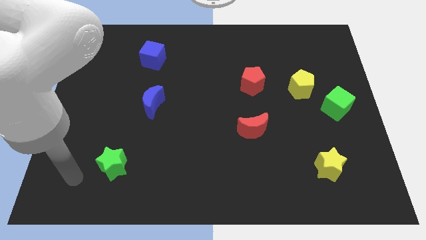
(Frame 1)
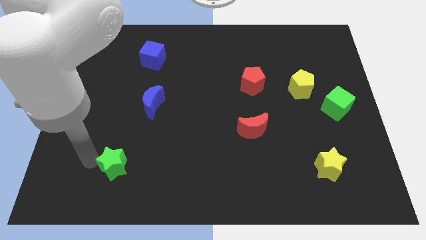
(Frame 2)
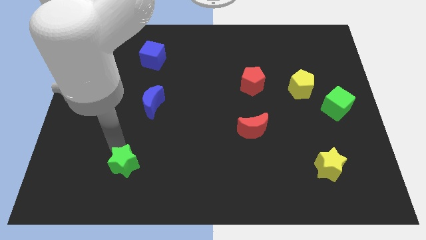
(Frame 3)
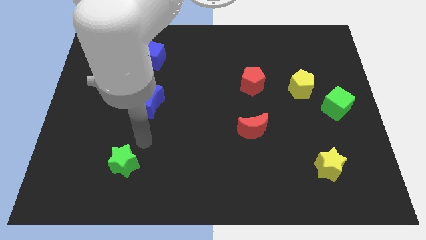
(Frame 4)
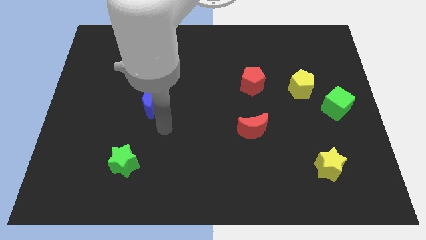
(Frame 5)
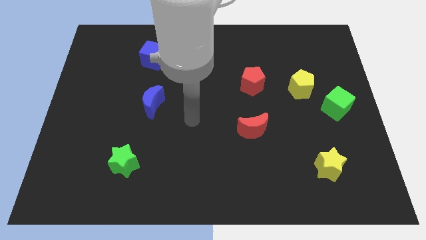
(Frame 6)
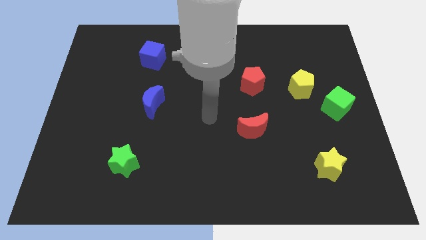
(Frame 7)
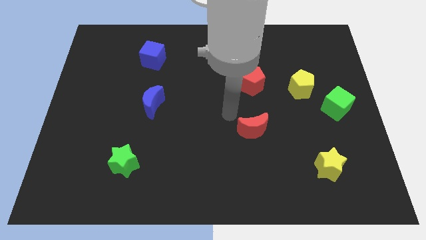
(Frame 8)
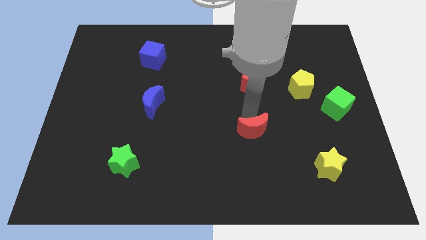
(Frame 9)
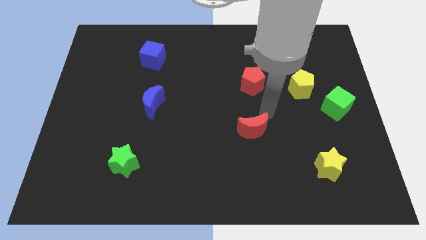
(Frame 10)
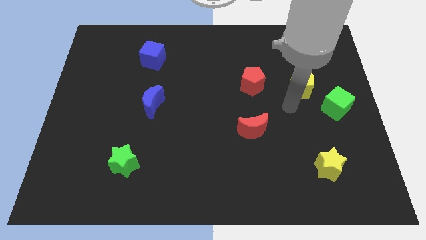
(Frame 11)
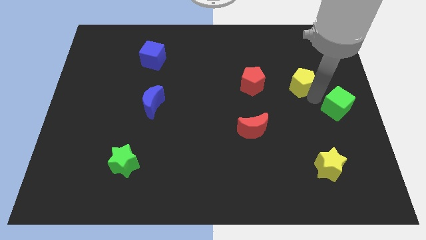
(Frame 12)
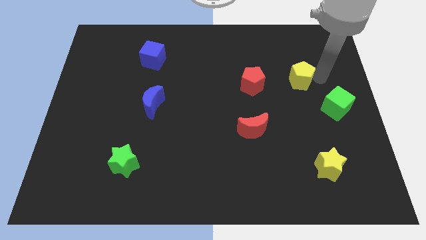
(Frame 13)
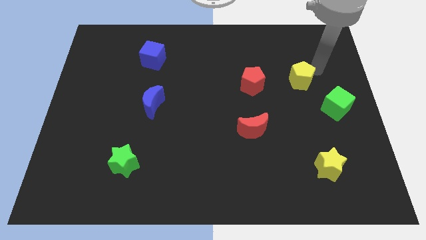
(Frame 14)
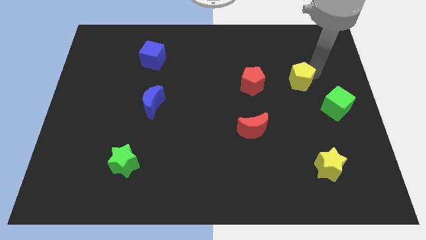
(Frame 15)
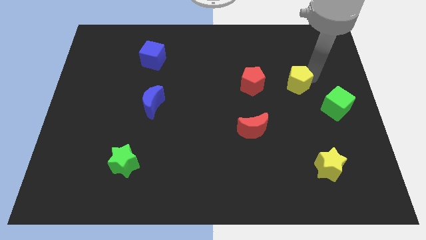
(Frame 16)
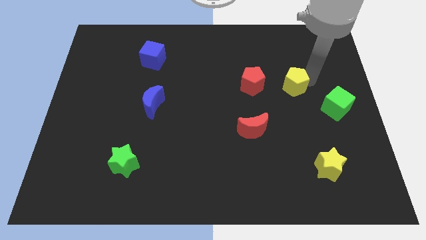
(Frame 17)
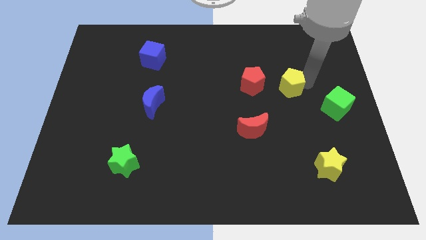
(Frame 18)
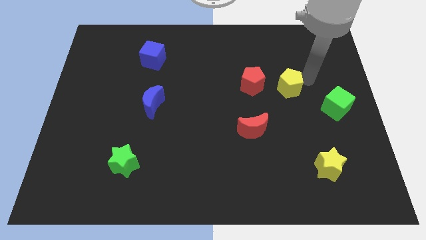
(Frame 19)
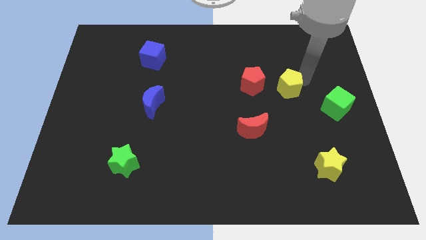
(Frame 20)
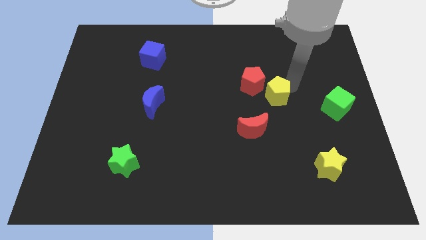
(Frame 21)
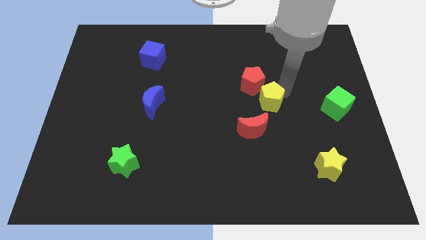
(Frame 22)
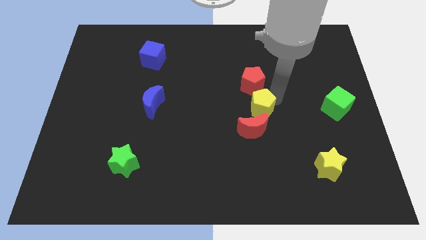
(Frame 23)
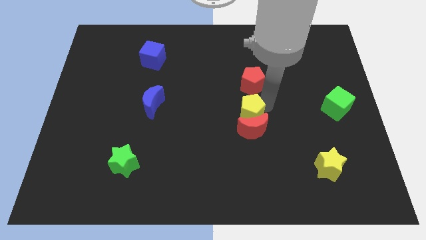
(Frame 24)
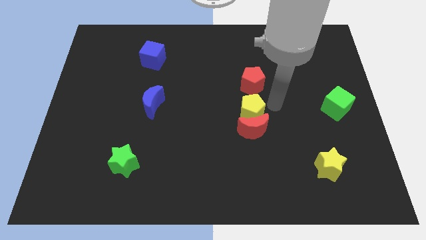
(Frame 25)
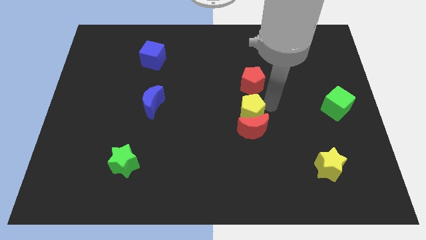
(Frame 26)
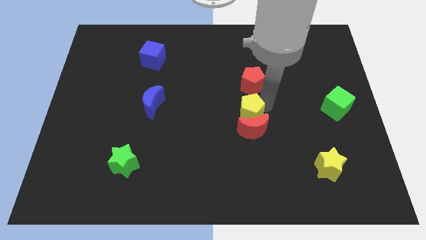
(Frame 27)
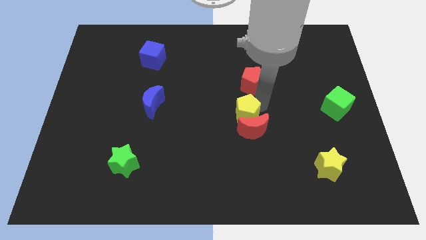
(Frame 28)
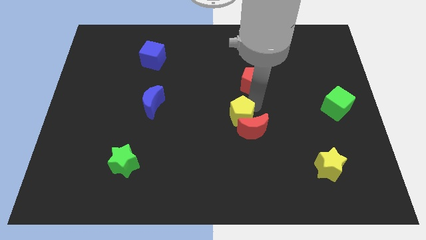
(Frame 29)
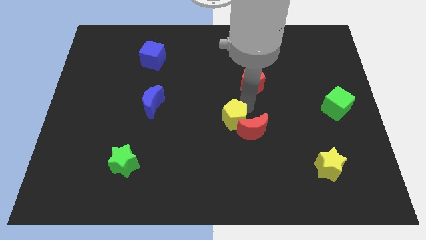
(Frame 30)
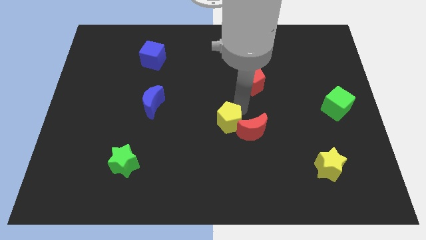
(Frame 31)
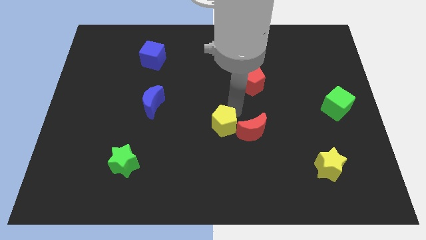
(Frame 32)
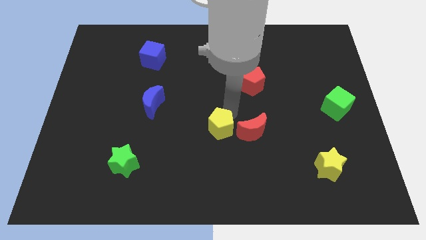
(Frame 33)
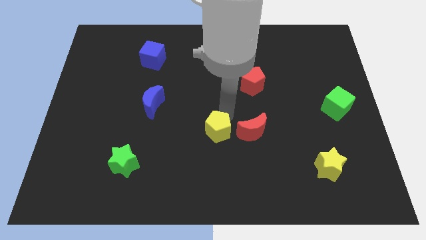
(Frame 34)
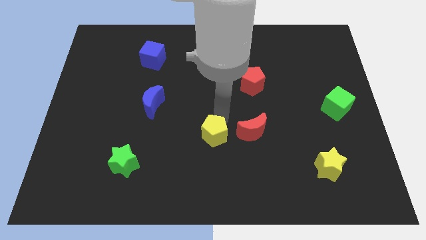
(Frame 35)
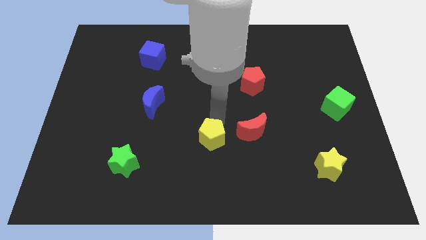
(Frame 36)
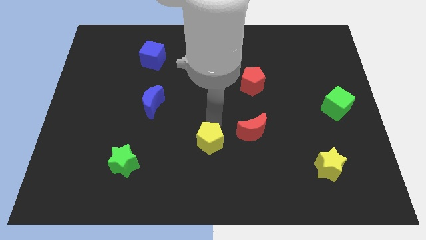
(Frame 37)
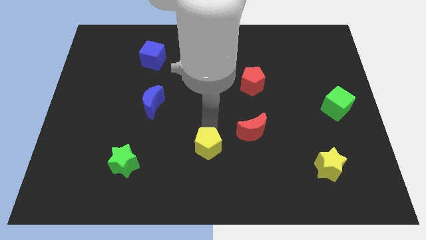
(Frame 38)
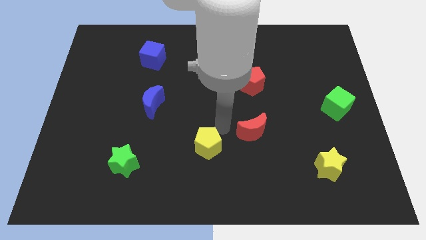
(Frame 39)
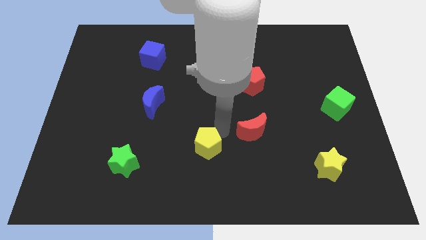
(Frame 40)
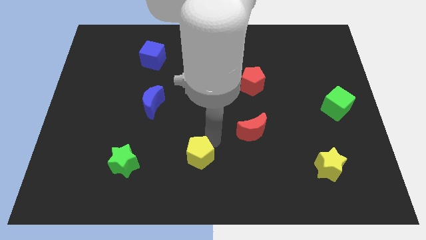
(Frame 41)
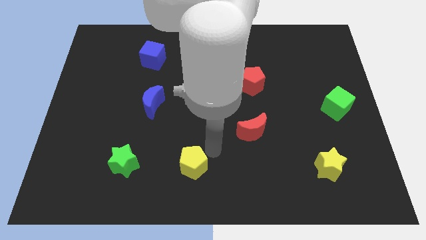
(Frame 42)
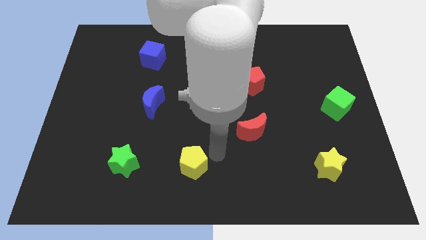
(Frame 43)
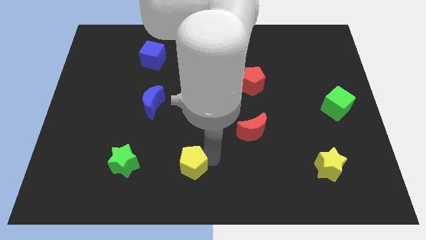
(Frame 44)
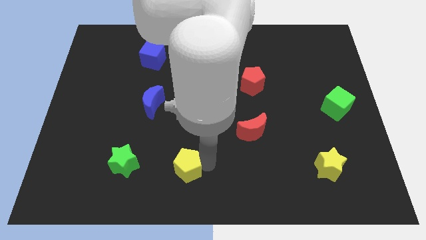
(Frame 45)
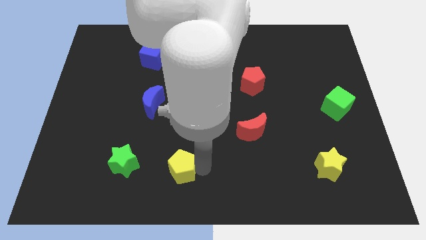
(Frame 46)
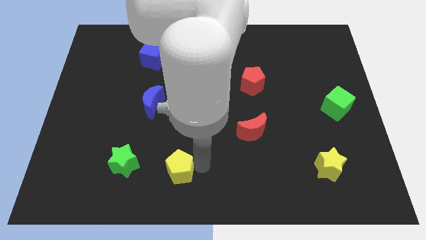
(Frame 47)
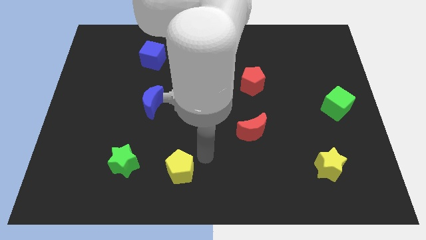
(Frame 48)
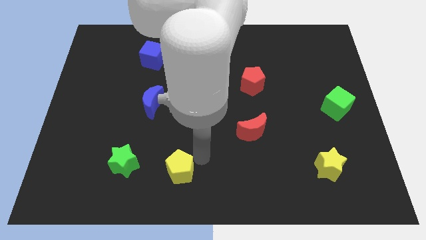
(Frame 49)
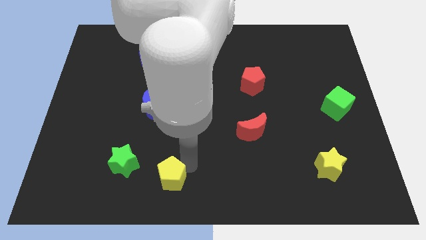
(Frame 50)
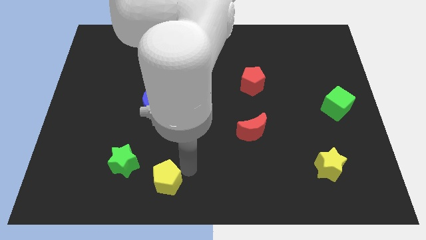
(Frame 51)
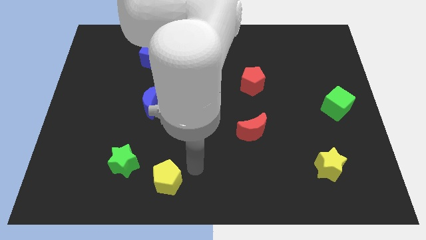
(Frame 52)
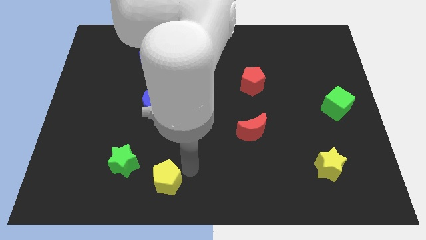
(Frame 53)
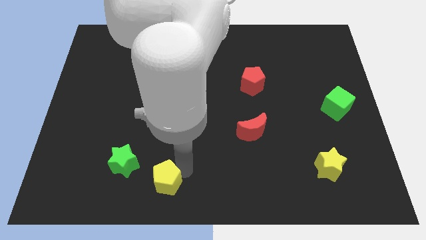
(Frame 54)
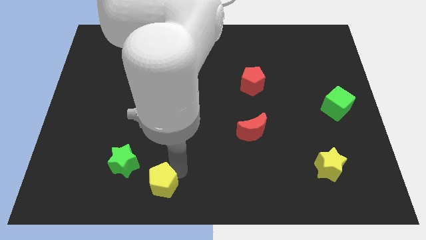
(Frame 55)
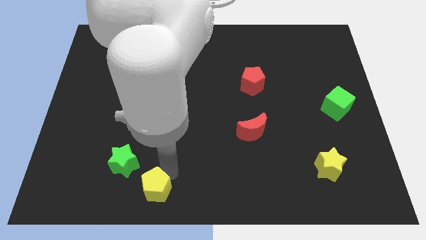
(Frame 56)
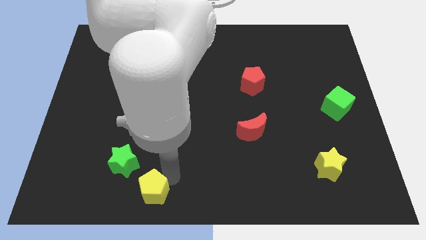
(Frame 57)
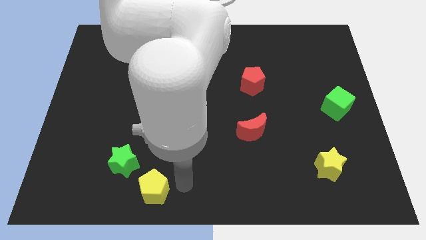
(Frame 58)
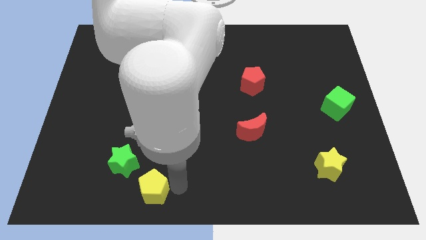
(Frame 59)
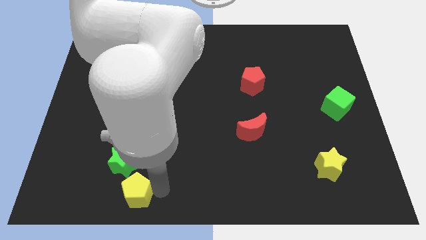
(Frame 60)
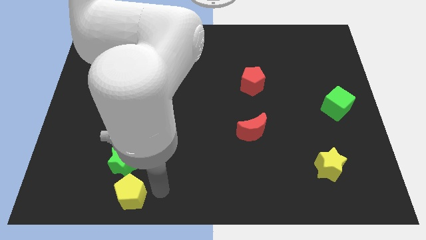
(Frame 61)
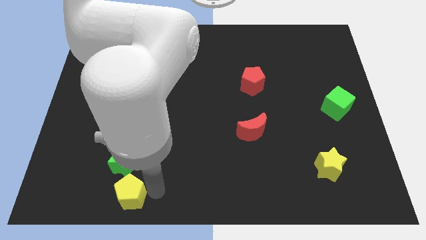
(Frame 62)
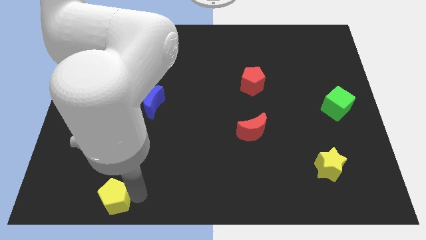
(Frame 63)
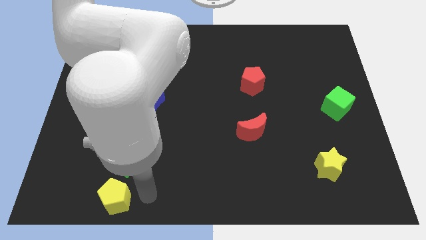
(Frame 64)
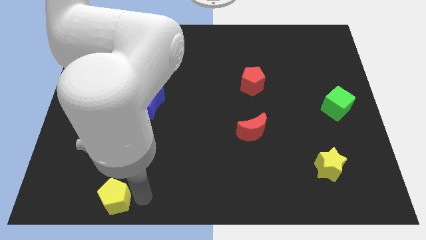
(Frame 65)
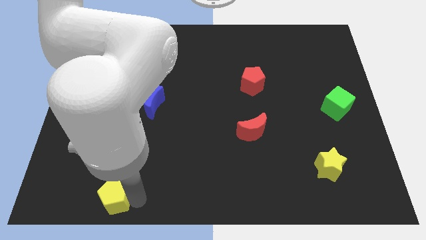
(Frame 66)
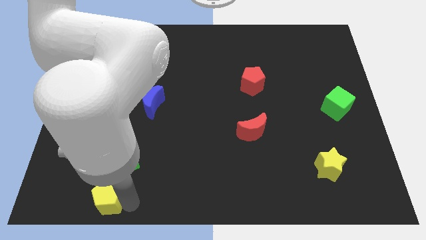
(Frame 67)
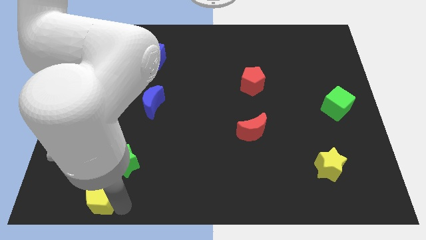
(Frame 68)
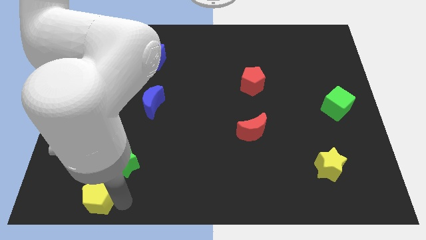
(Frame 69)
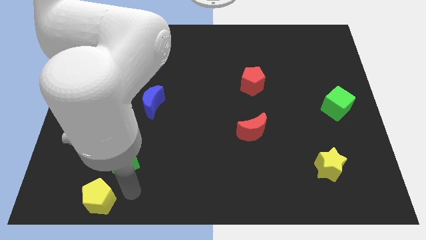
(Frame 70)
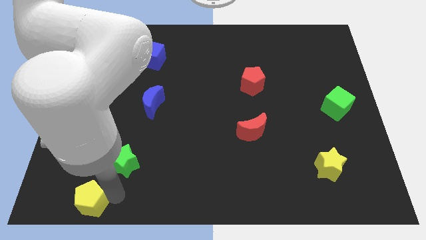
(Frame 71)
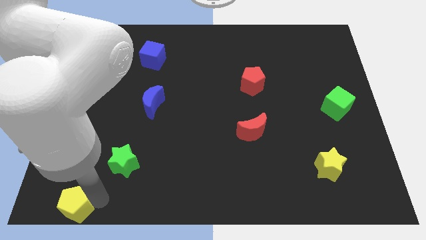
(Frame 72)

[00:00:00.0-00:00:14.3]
push the yellow pentagon to the bottom left
